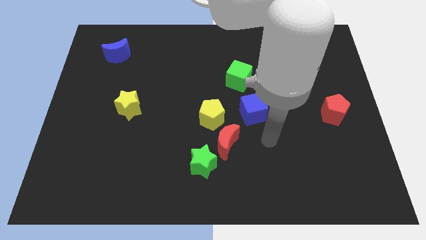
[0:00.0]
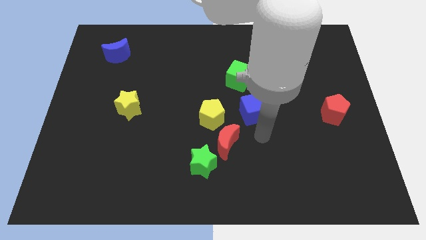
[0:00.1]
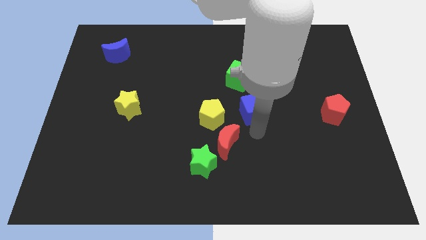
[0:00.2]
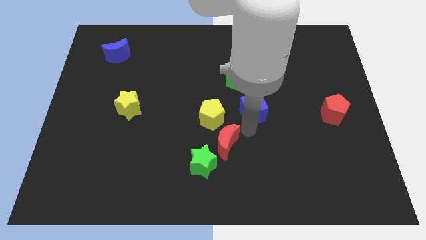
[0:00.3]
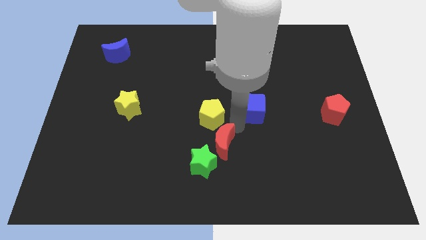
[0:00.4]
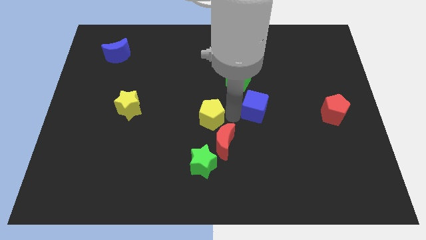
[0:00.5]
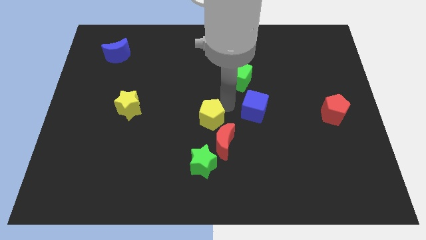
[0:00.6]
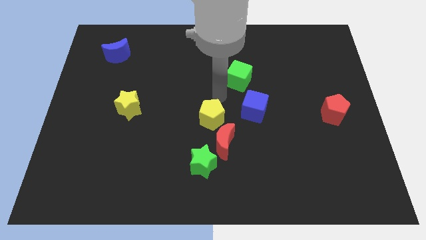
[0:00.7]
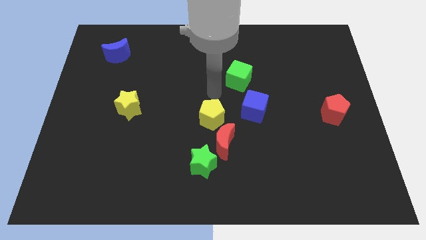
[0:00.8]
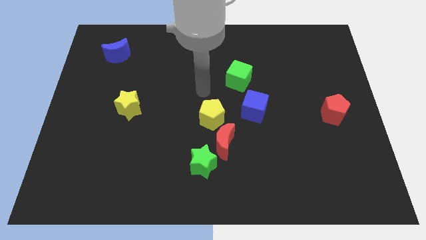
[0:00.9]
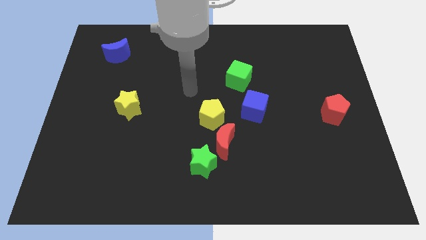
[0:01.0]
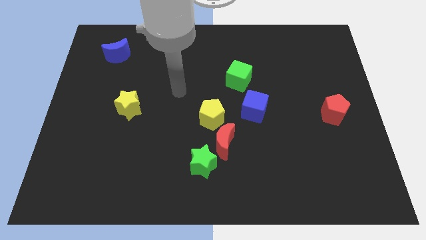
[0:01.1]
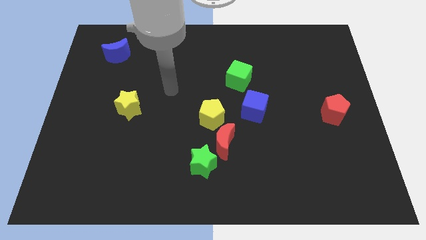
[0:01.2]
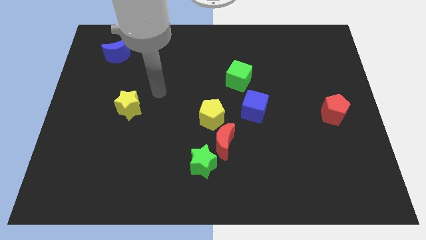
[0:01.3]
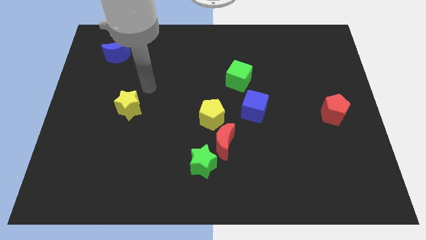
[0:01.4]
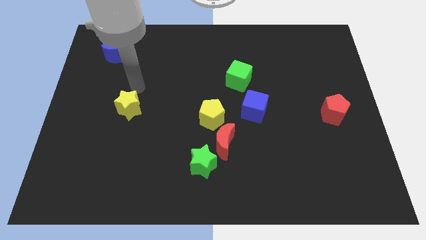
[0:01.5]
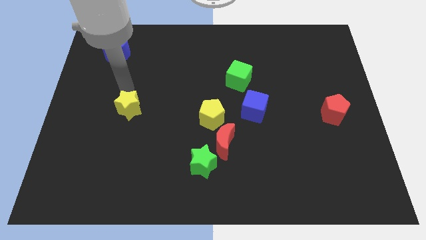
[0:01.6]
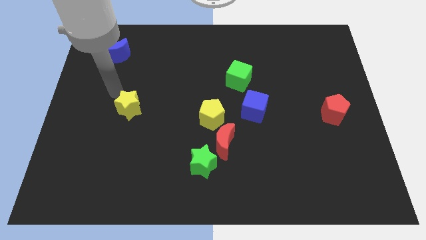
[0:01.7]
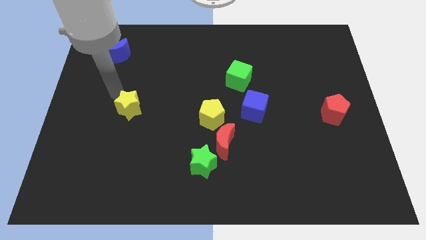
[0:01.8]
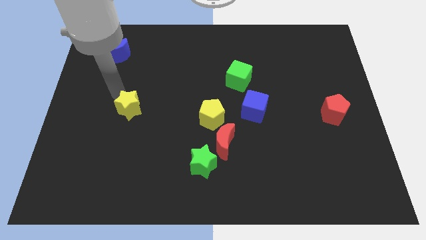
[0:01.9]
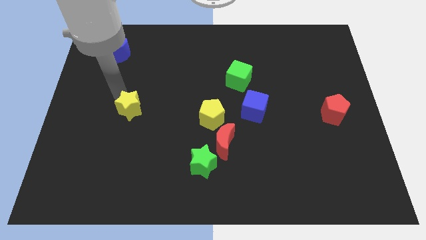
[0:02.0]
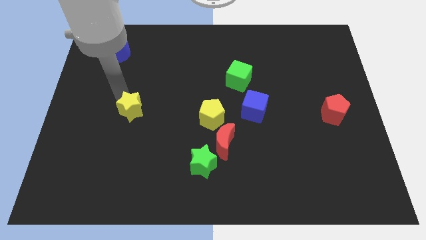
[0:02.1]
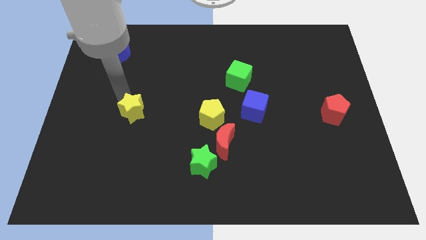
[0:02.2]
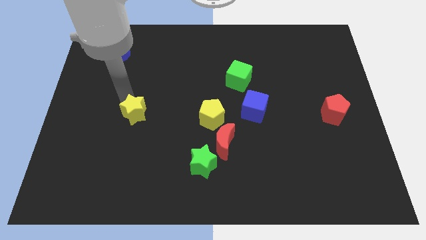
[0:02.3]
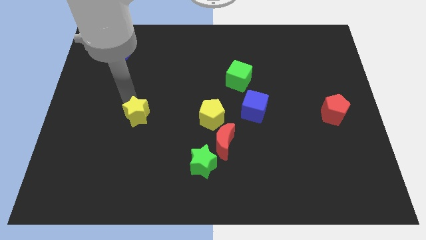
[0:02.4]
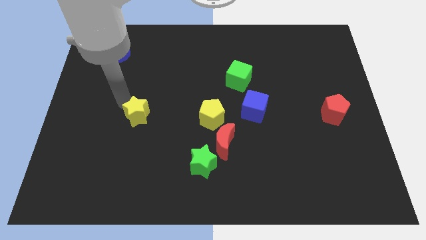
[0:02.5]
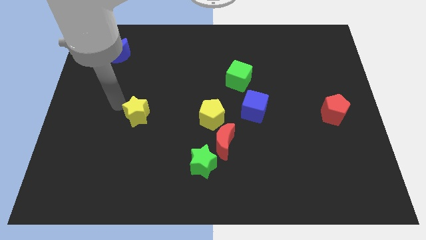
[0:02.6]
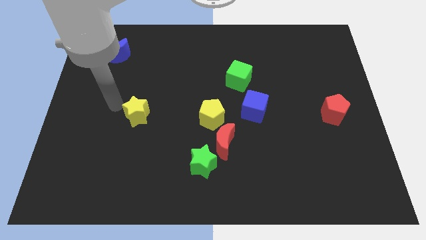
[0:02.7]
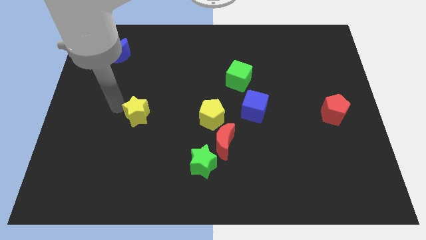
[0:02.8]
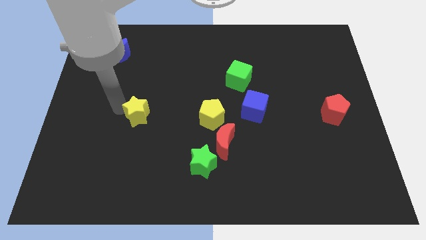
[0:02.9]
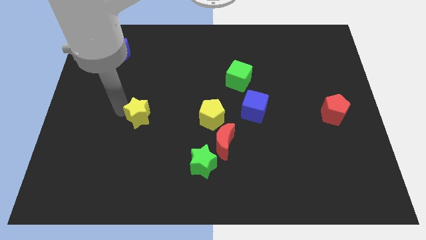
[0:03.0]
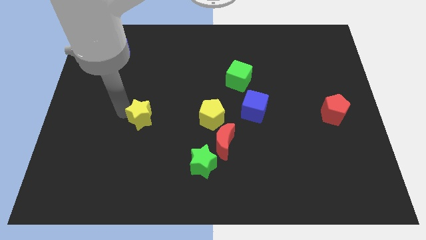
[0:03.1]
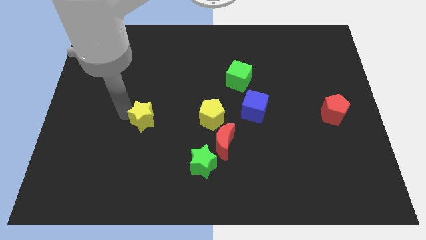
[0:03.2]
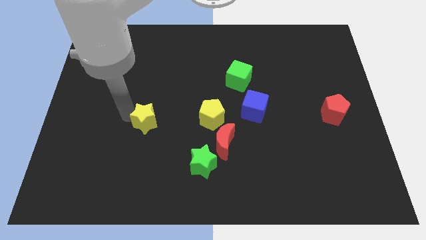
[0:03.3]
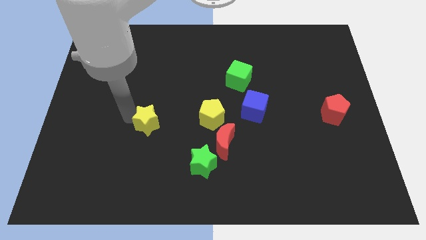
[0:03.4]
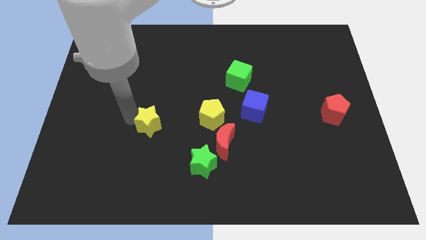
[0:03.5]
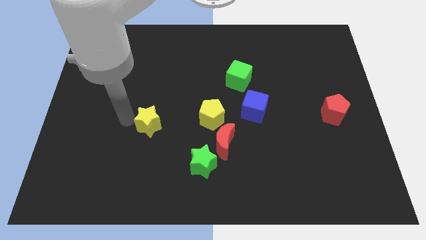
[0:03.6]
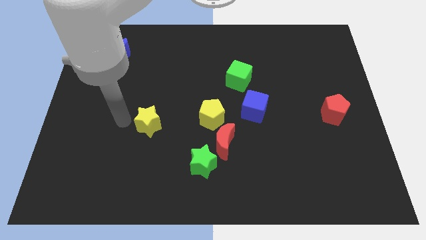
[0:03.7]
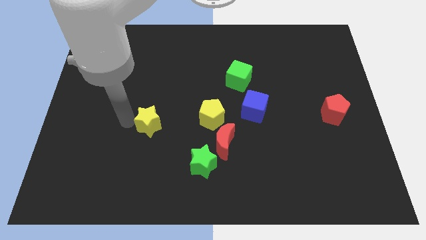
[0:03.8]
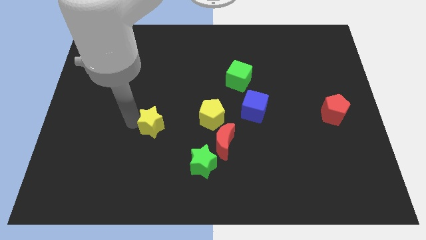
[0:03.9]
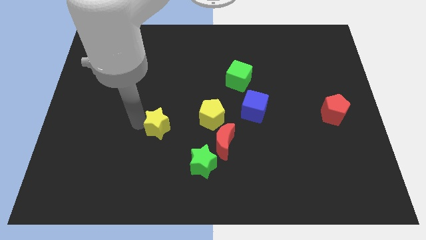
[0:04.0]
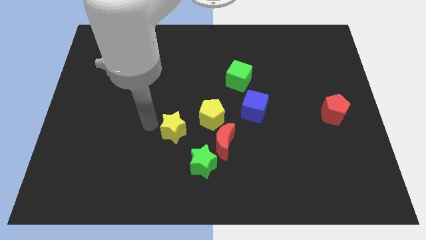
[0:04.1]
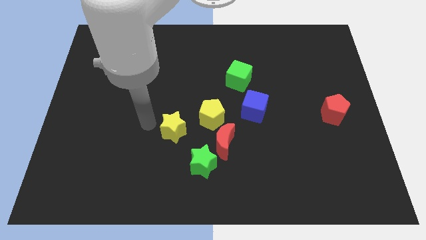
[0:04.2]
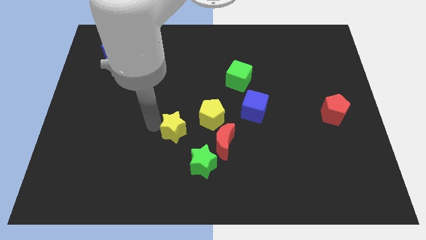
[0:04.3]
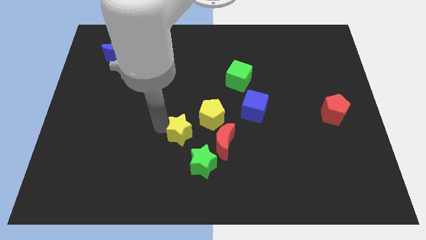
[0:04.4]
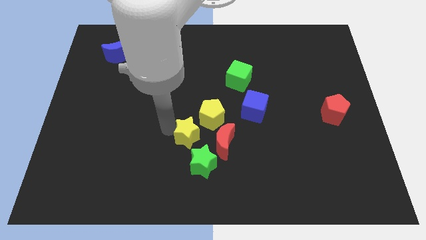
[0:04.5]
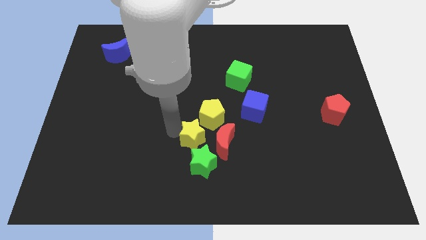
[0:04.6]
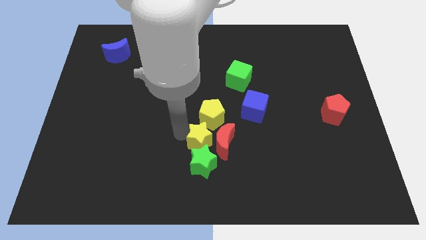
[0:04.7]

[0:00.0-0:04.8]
move the yellow star close to the red moon

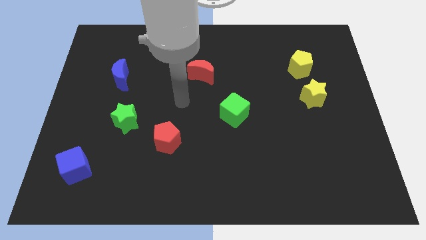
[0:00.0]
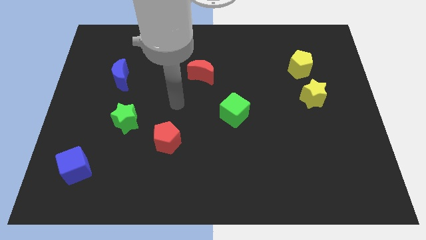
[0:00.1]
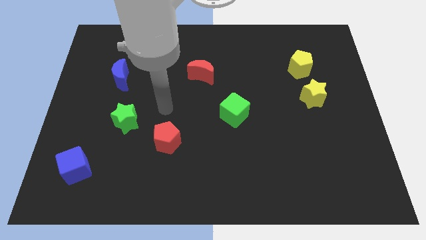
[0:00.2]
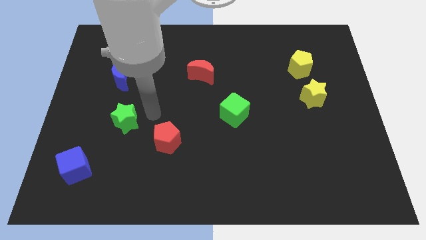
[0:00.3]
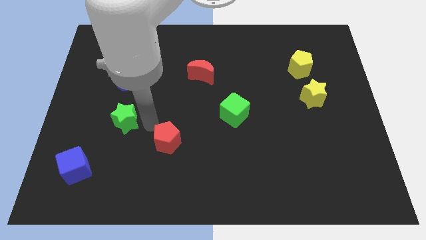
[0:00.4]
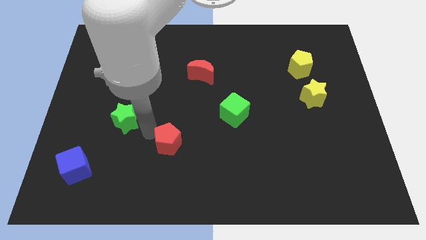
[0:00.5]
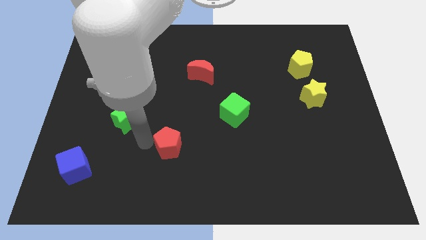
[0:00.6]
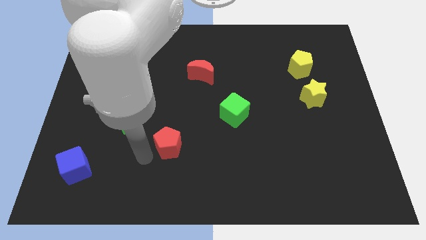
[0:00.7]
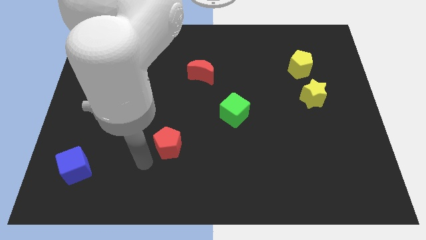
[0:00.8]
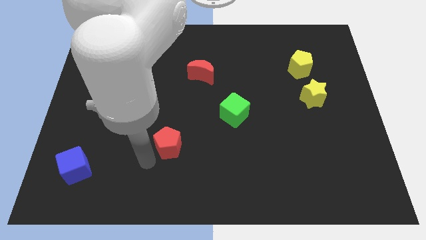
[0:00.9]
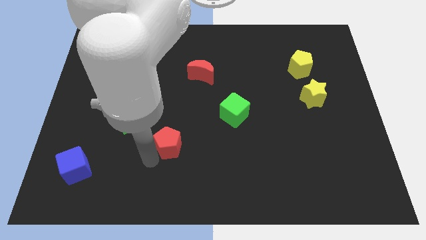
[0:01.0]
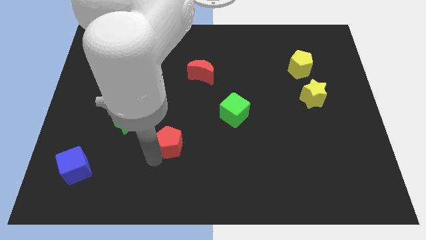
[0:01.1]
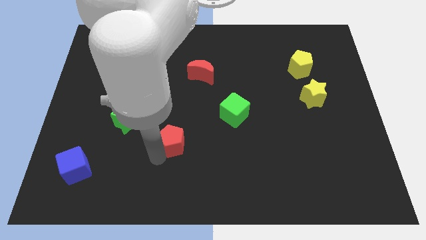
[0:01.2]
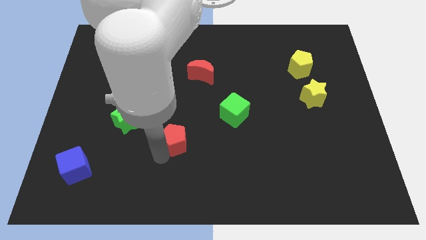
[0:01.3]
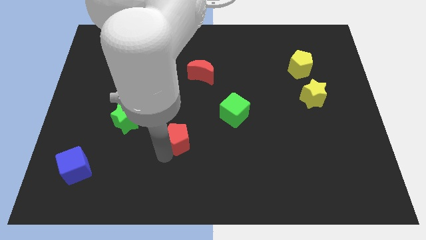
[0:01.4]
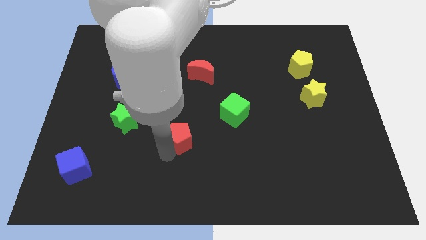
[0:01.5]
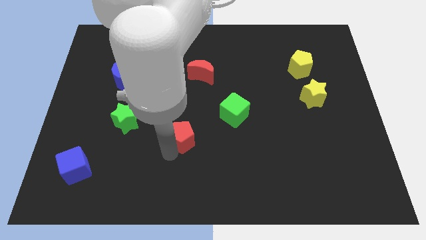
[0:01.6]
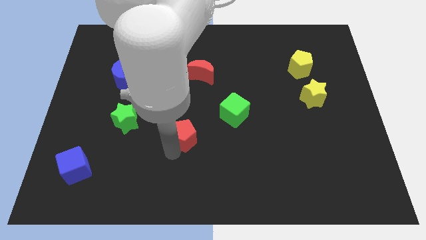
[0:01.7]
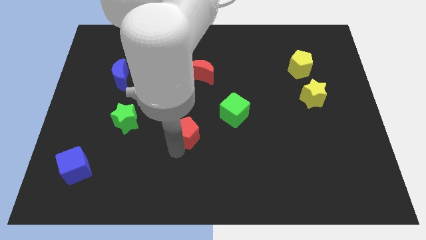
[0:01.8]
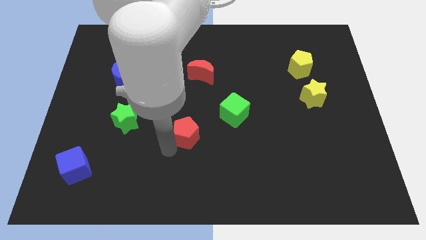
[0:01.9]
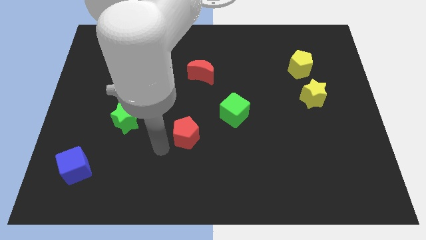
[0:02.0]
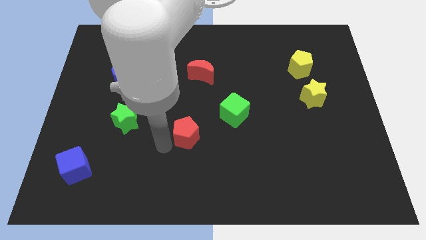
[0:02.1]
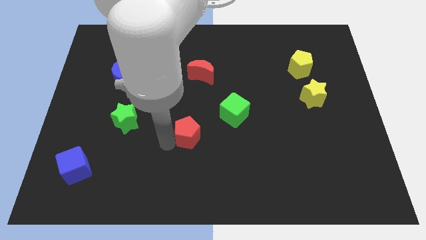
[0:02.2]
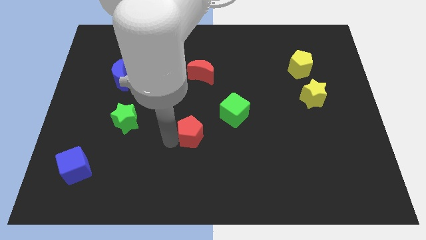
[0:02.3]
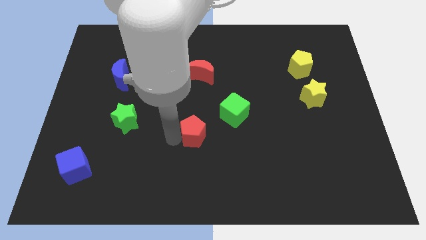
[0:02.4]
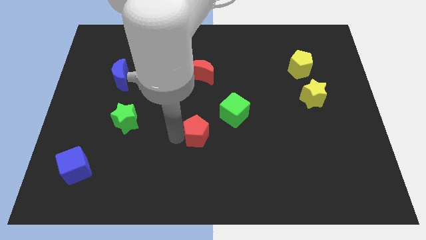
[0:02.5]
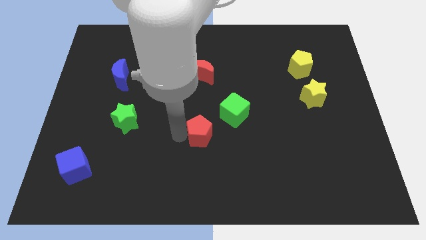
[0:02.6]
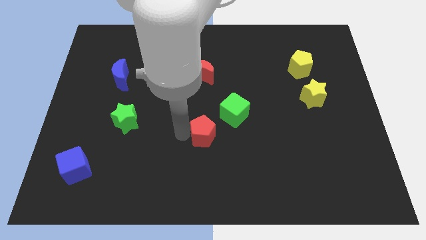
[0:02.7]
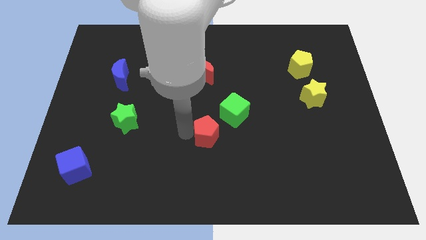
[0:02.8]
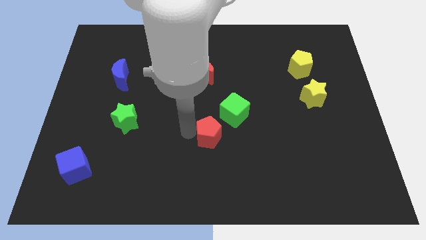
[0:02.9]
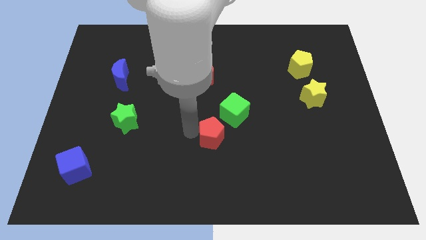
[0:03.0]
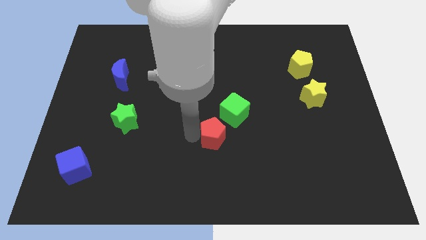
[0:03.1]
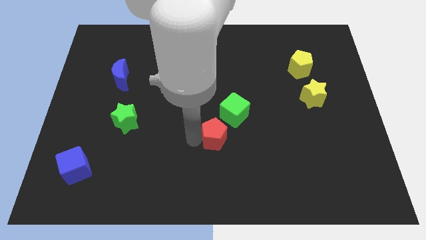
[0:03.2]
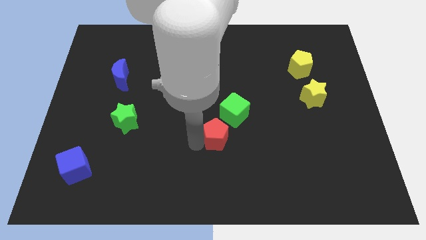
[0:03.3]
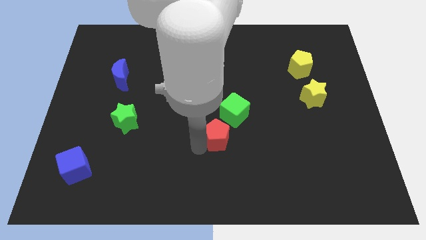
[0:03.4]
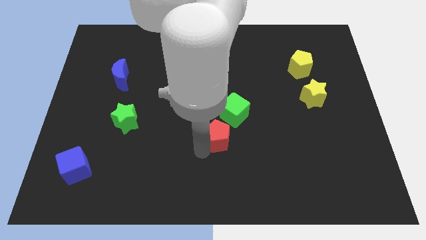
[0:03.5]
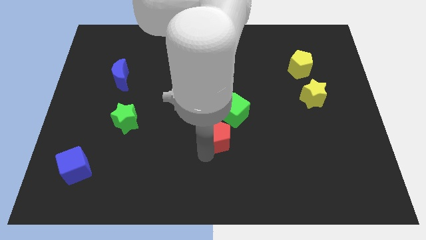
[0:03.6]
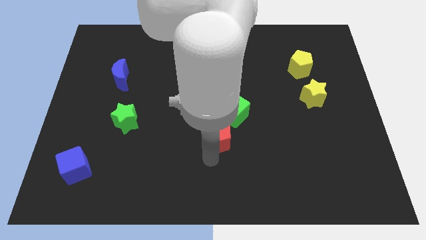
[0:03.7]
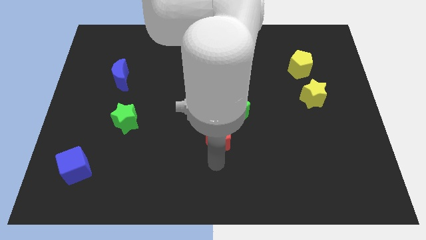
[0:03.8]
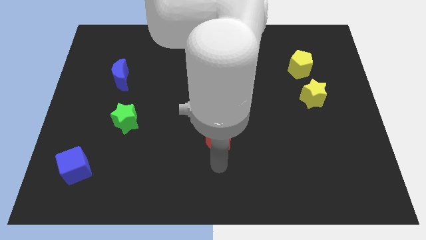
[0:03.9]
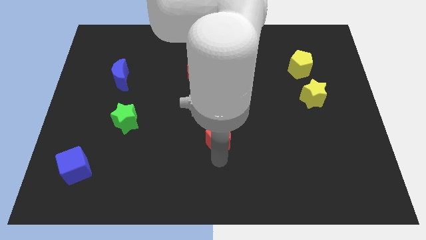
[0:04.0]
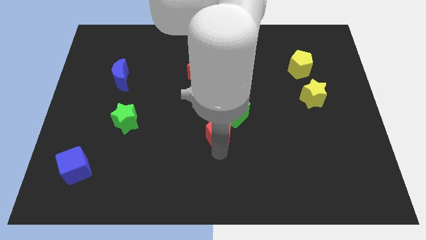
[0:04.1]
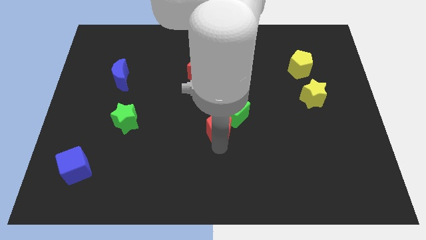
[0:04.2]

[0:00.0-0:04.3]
push the red pentagon close to the green cube
